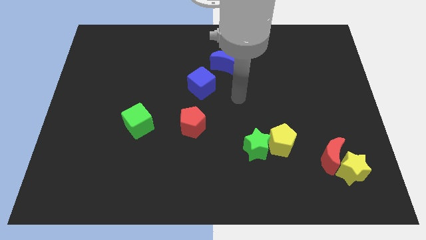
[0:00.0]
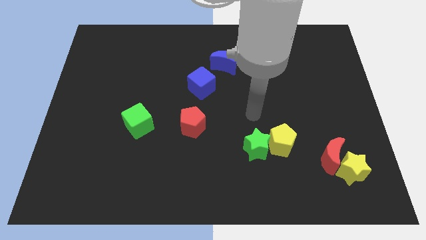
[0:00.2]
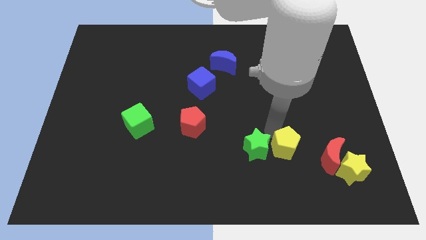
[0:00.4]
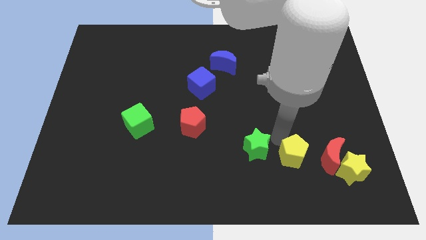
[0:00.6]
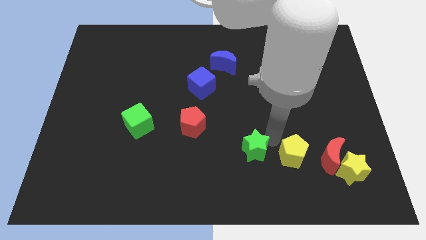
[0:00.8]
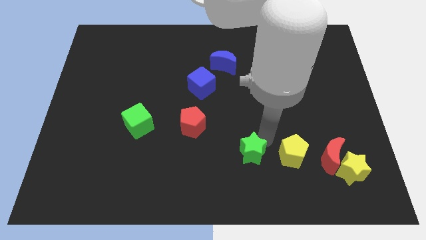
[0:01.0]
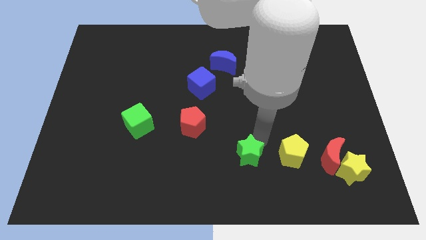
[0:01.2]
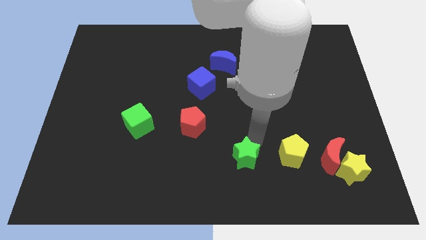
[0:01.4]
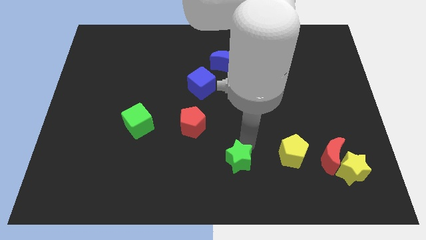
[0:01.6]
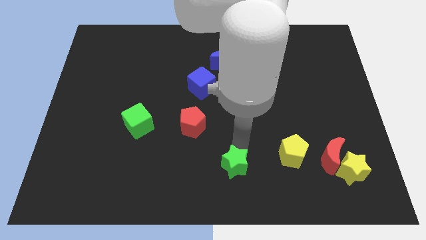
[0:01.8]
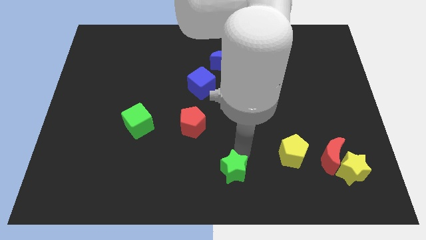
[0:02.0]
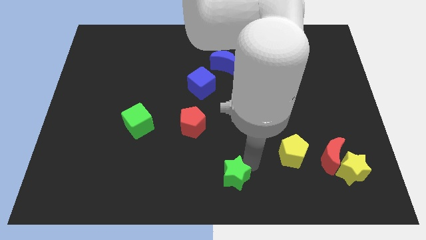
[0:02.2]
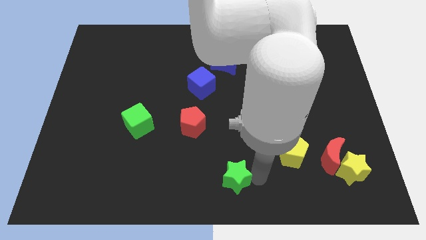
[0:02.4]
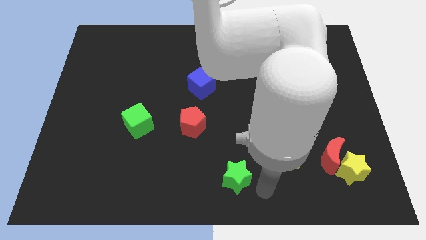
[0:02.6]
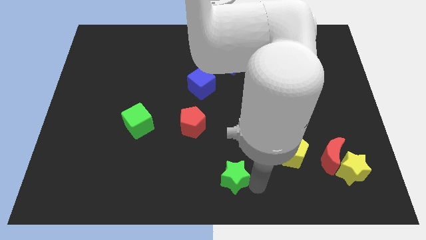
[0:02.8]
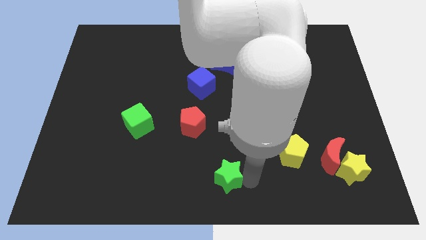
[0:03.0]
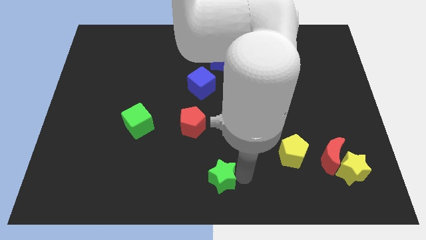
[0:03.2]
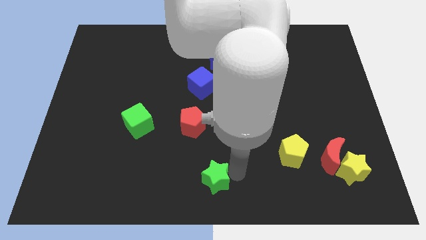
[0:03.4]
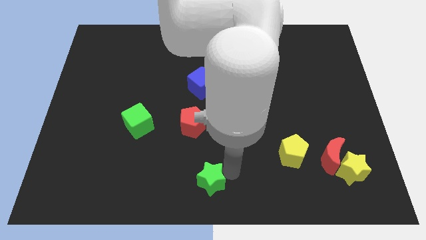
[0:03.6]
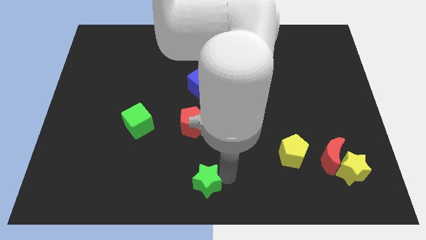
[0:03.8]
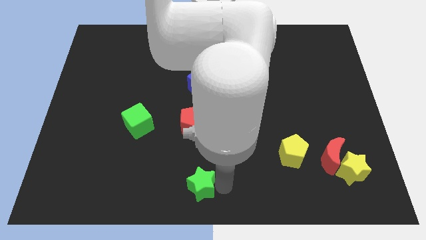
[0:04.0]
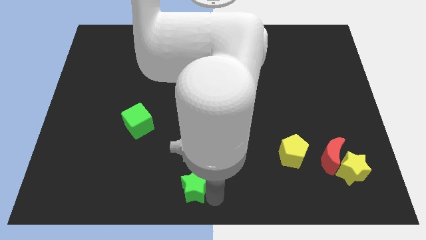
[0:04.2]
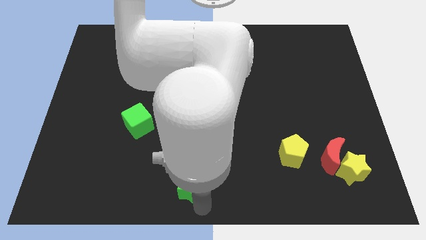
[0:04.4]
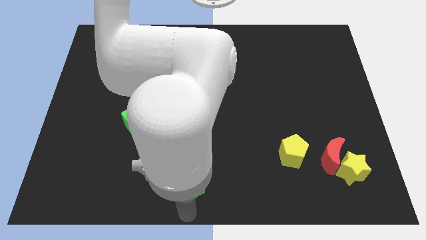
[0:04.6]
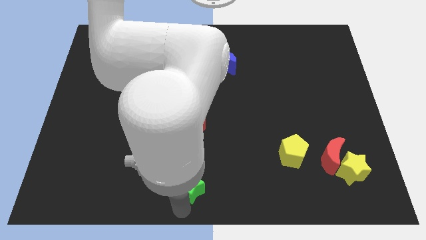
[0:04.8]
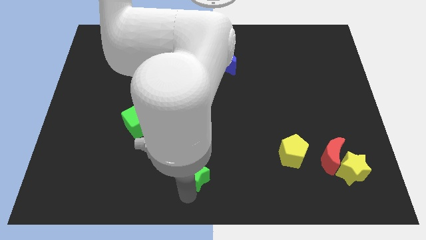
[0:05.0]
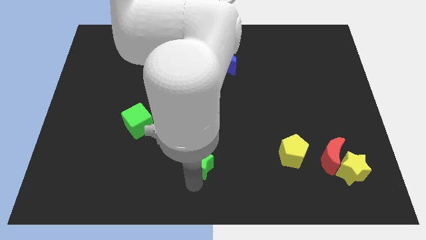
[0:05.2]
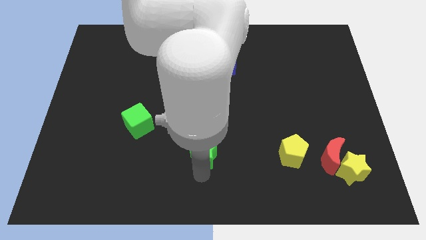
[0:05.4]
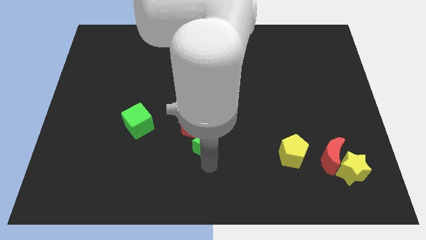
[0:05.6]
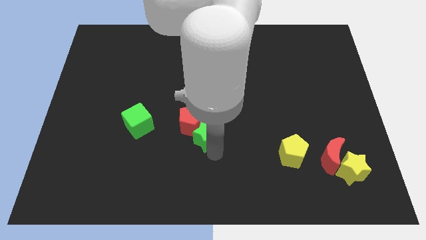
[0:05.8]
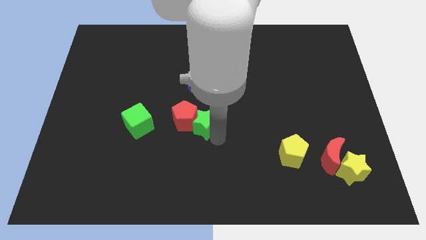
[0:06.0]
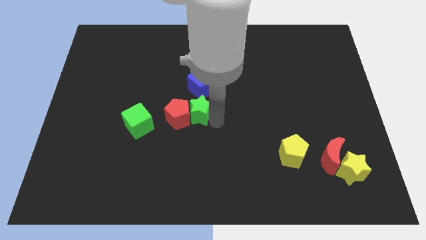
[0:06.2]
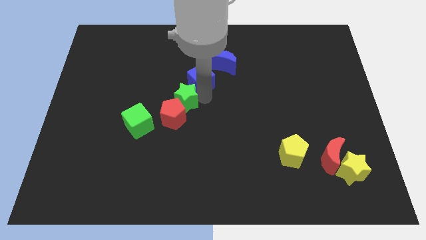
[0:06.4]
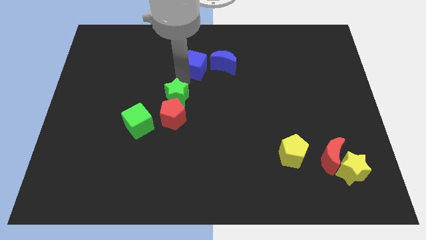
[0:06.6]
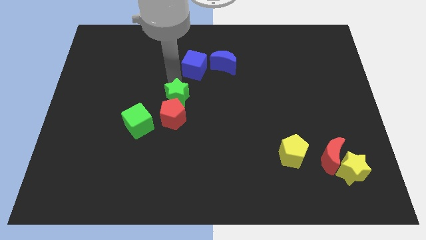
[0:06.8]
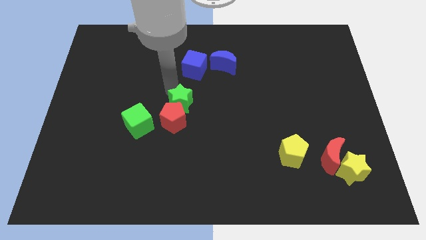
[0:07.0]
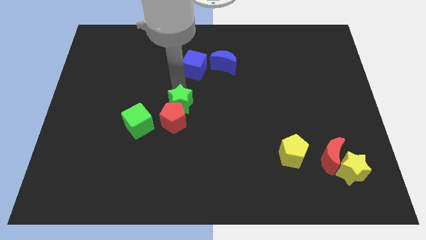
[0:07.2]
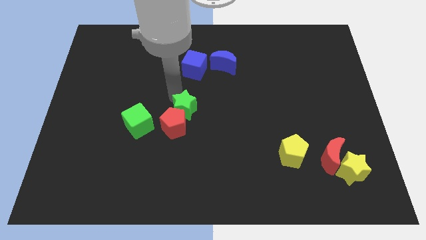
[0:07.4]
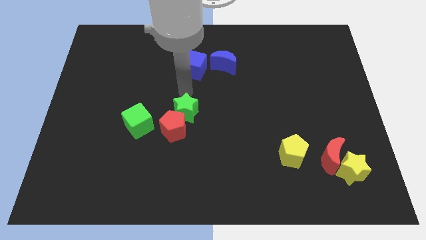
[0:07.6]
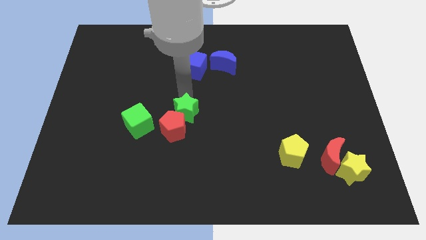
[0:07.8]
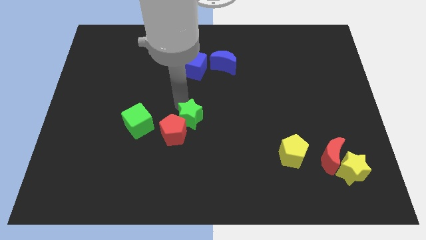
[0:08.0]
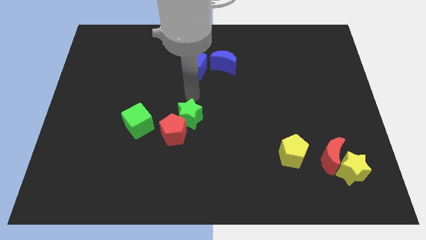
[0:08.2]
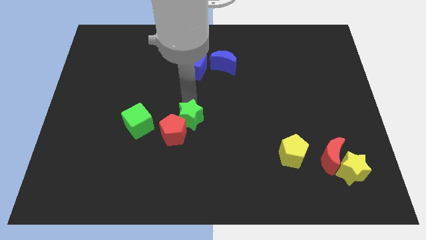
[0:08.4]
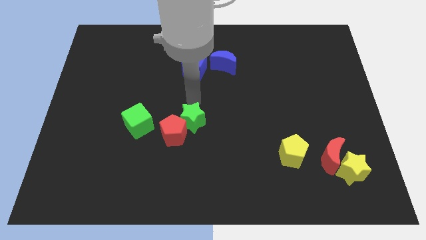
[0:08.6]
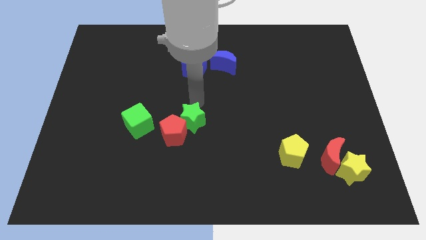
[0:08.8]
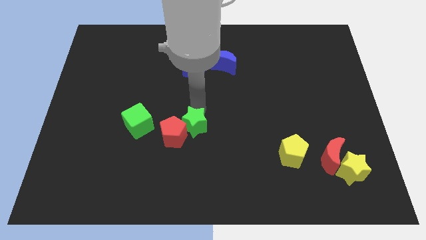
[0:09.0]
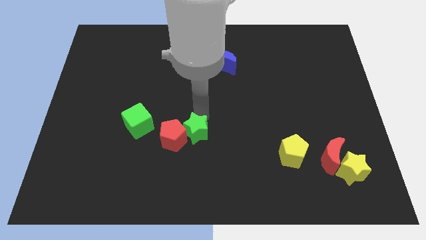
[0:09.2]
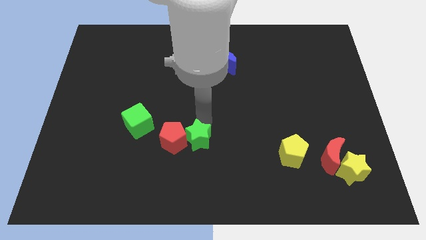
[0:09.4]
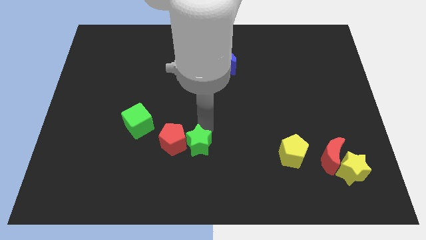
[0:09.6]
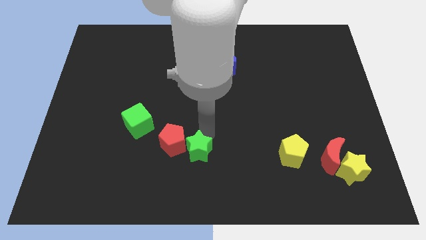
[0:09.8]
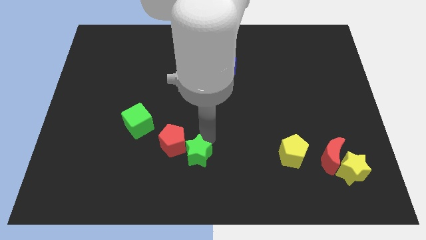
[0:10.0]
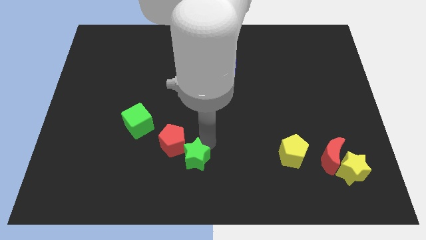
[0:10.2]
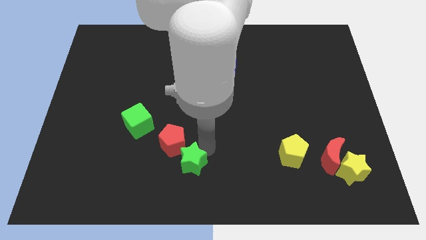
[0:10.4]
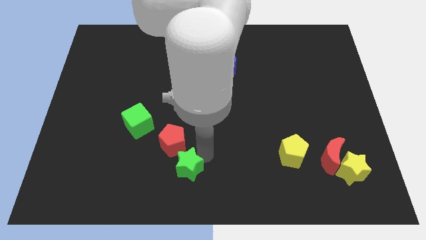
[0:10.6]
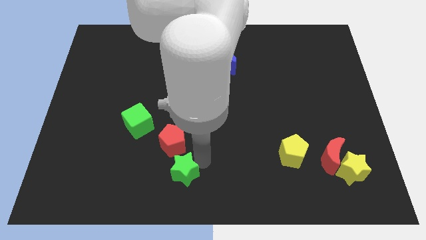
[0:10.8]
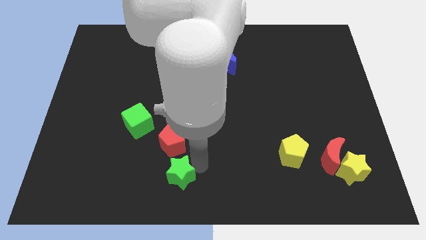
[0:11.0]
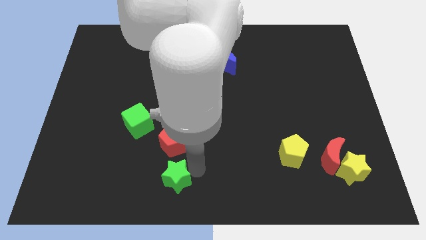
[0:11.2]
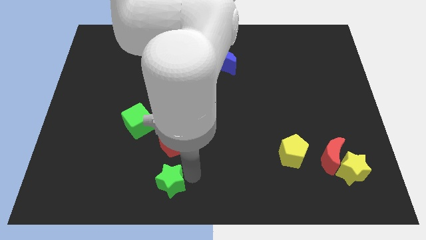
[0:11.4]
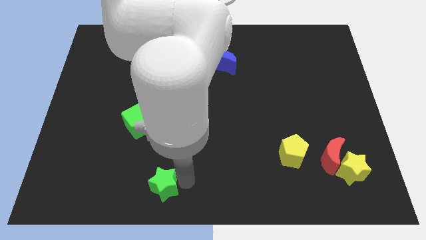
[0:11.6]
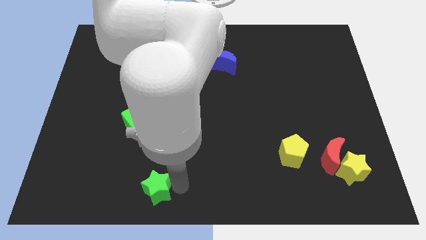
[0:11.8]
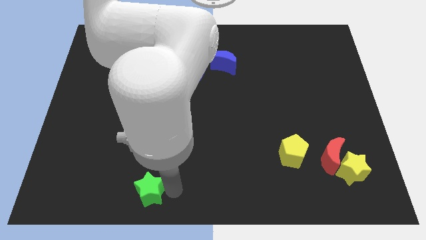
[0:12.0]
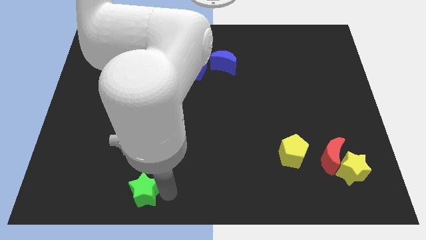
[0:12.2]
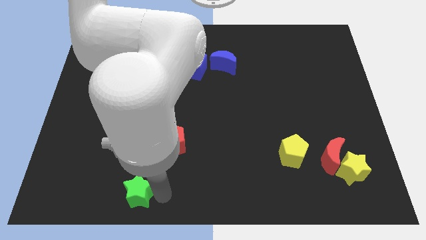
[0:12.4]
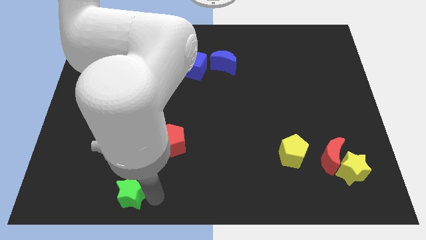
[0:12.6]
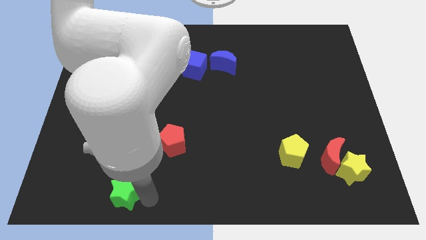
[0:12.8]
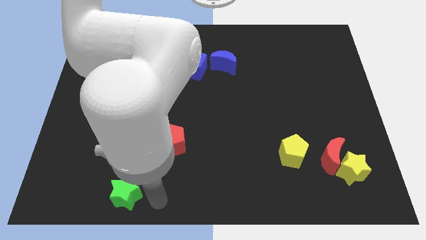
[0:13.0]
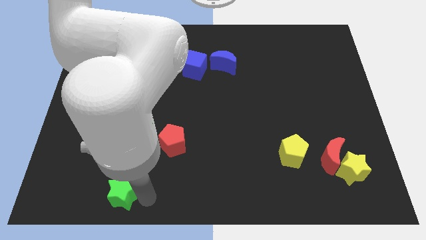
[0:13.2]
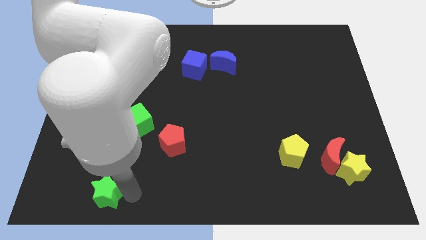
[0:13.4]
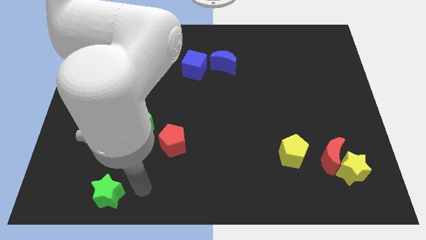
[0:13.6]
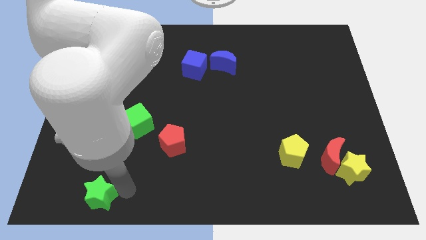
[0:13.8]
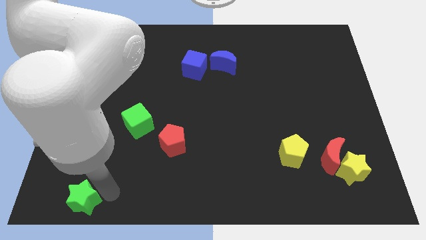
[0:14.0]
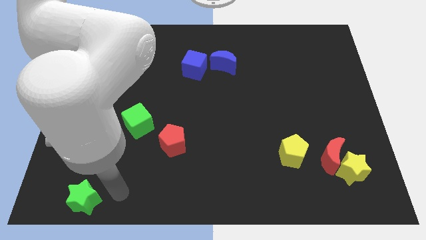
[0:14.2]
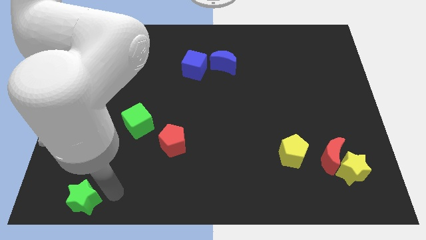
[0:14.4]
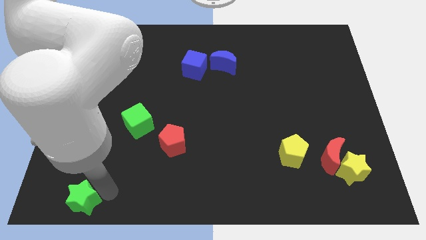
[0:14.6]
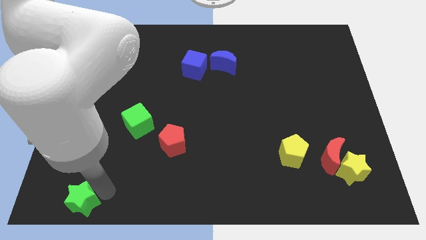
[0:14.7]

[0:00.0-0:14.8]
push the green star to the lower left corner
